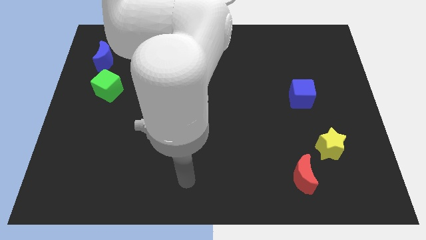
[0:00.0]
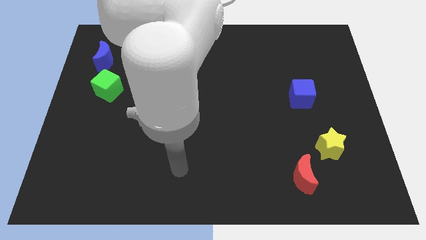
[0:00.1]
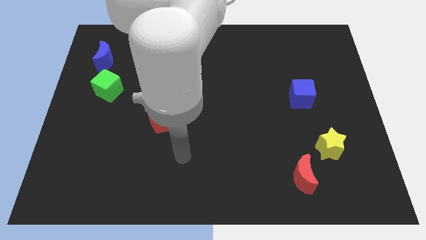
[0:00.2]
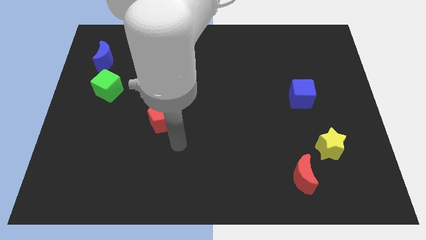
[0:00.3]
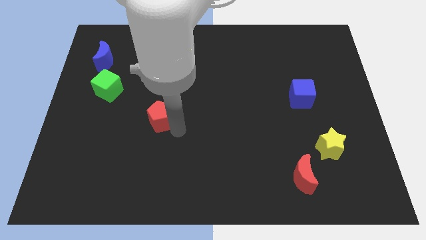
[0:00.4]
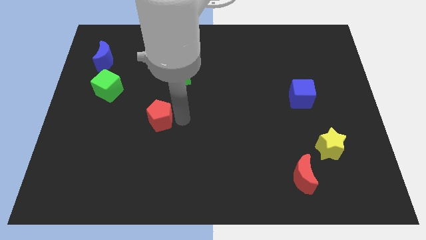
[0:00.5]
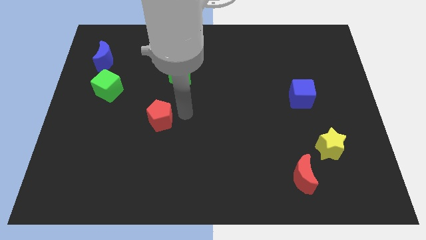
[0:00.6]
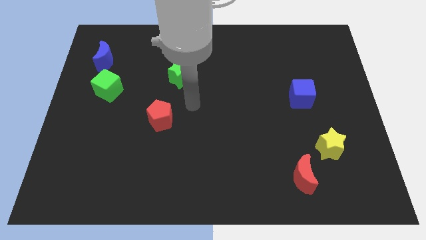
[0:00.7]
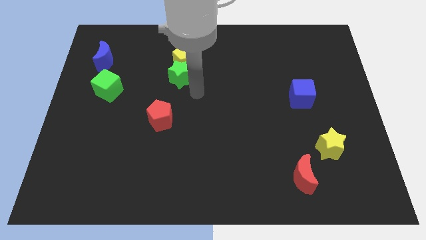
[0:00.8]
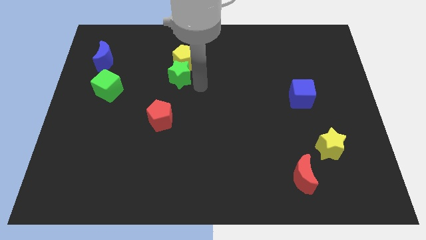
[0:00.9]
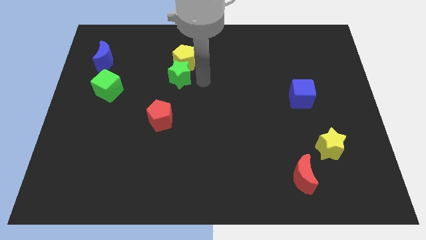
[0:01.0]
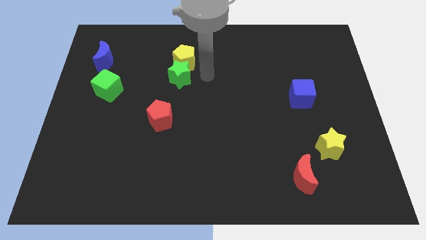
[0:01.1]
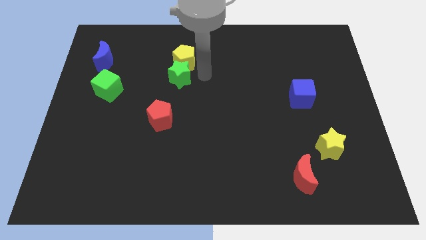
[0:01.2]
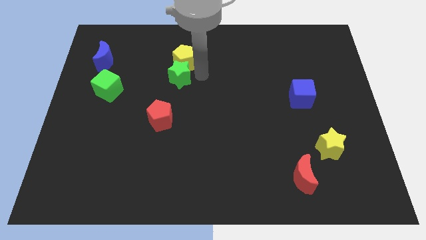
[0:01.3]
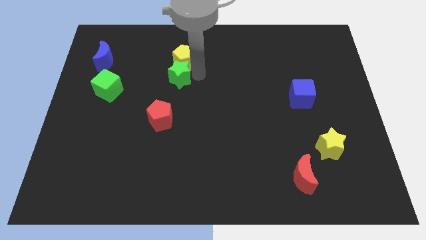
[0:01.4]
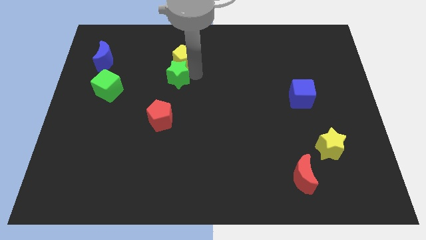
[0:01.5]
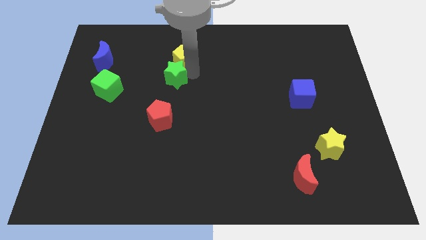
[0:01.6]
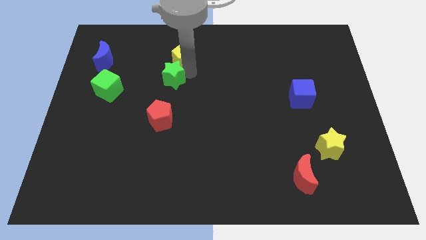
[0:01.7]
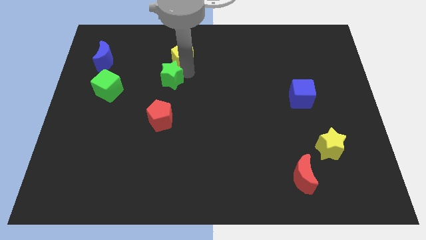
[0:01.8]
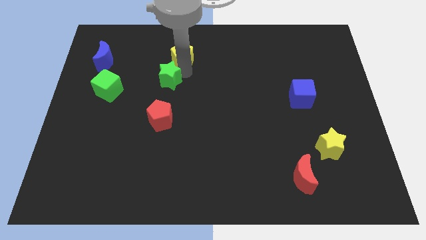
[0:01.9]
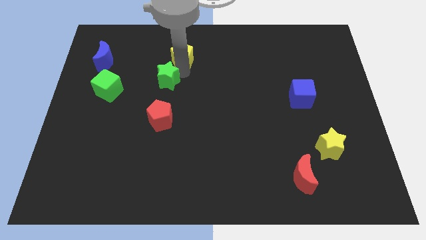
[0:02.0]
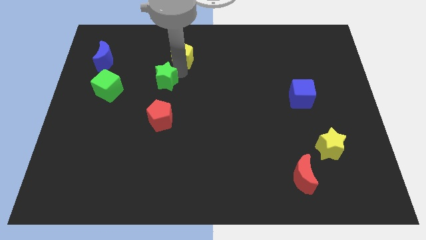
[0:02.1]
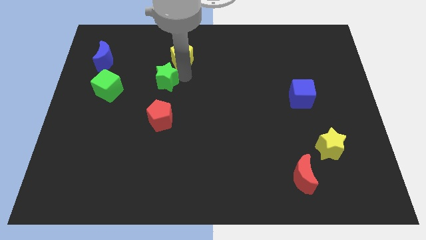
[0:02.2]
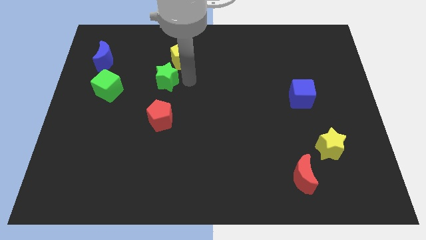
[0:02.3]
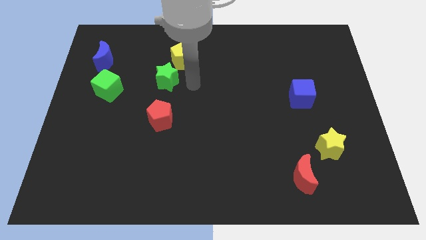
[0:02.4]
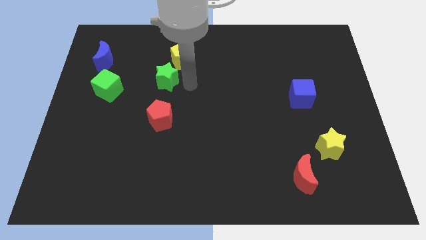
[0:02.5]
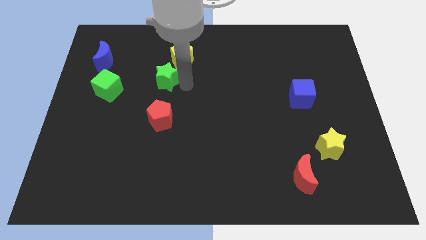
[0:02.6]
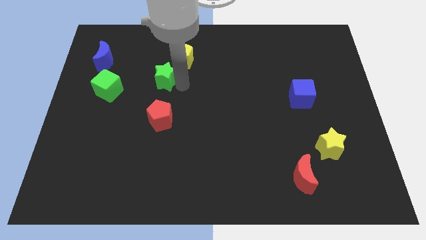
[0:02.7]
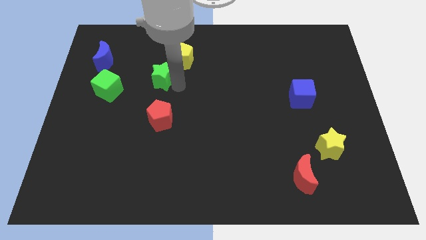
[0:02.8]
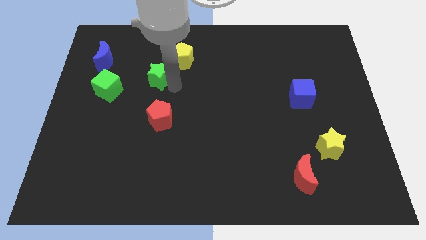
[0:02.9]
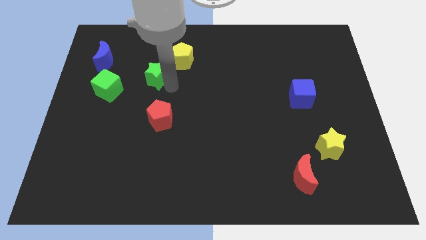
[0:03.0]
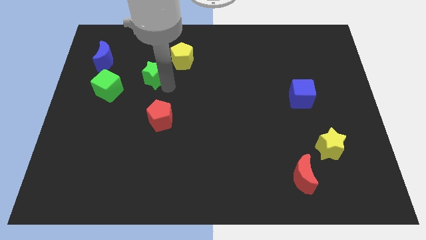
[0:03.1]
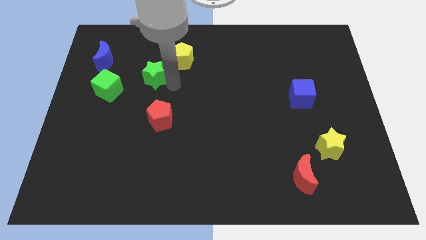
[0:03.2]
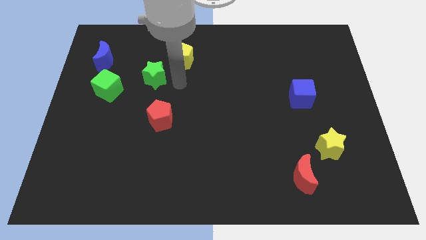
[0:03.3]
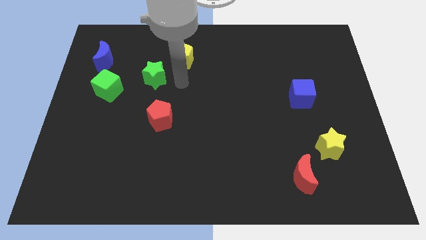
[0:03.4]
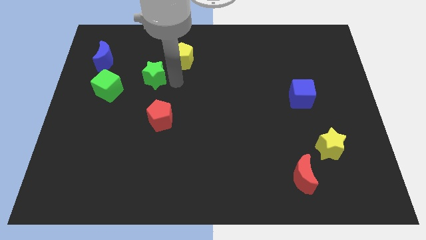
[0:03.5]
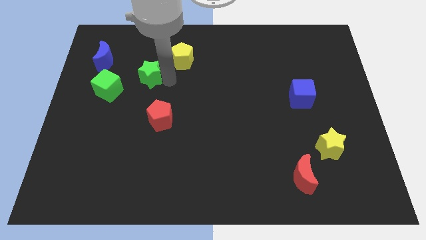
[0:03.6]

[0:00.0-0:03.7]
slightly push the green star left

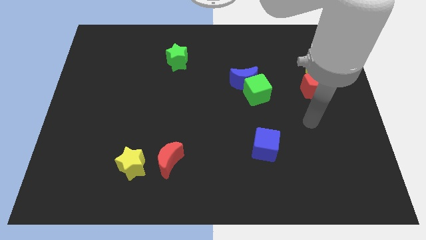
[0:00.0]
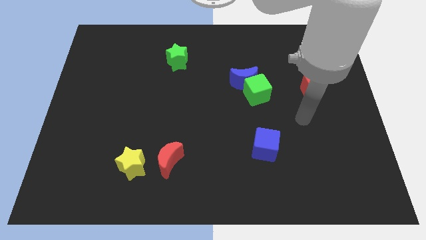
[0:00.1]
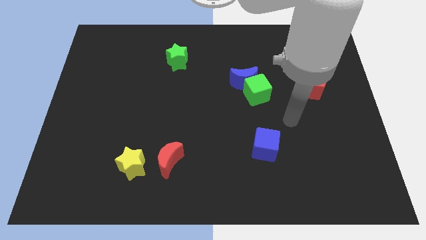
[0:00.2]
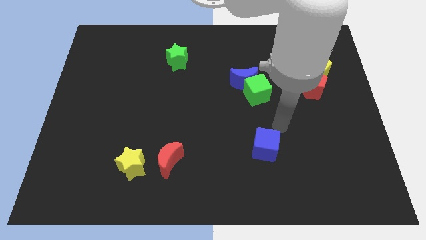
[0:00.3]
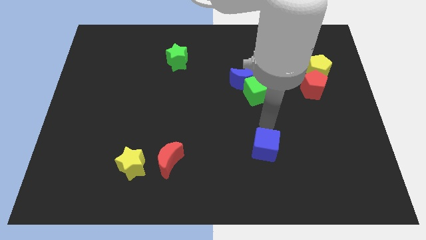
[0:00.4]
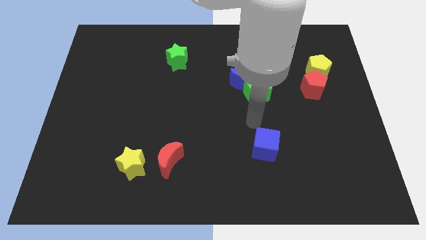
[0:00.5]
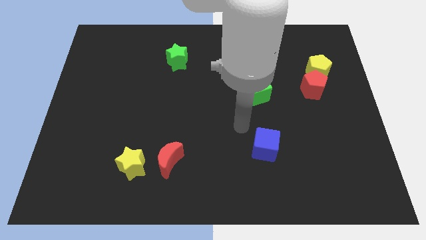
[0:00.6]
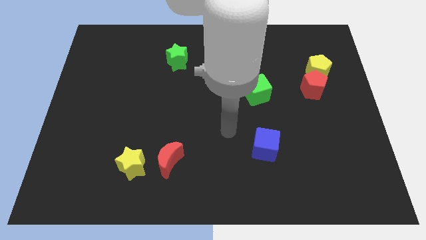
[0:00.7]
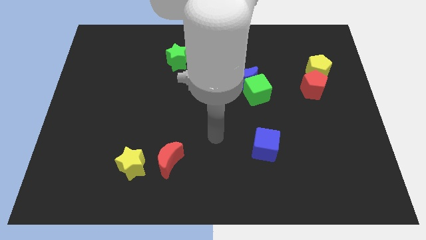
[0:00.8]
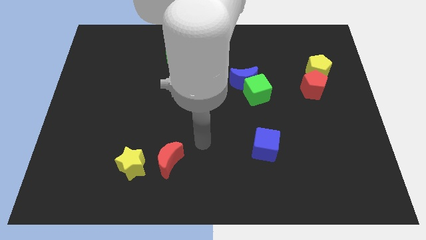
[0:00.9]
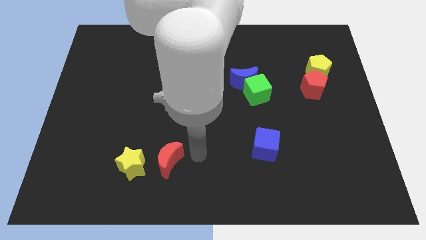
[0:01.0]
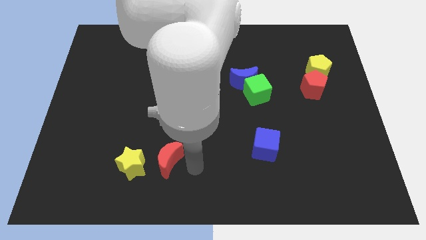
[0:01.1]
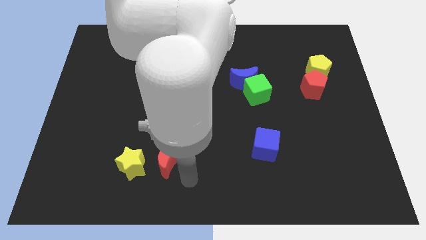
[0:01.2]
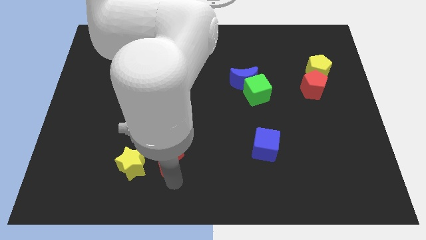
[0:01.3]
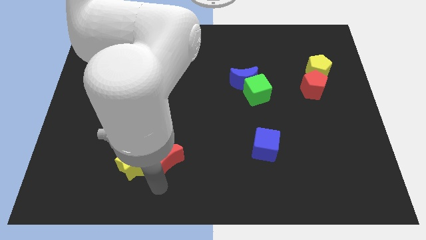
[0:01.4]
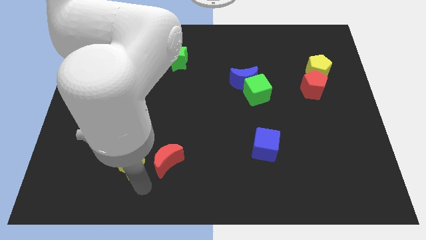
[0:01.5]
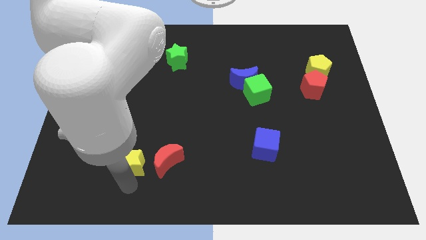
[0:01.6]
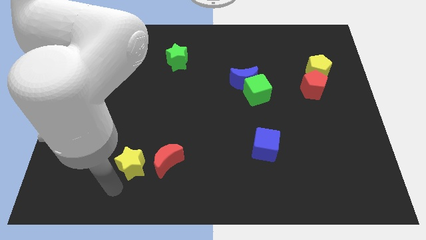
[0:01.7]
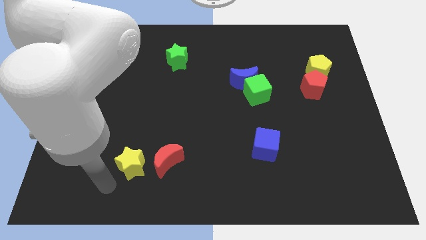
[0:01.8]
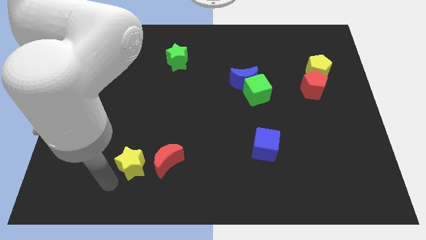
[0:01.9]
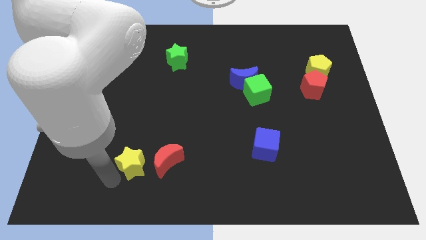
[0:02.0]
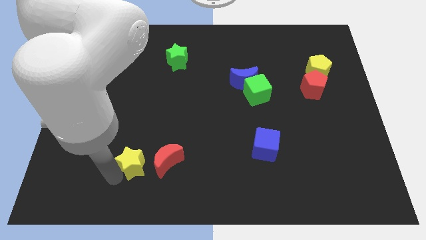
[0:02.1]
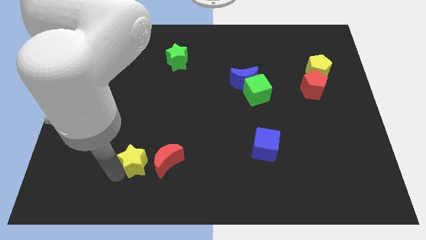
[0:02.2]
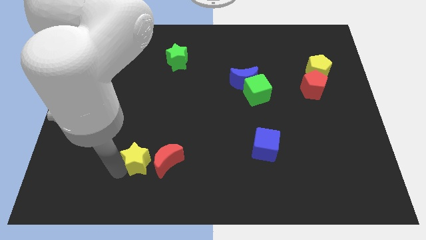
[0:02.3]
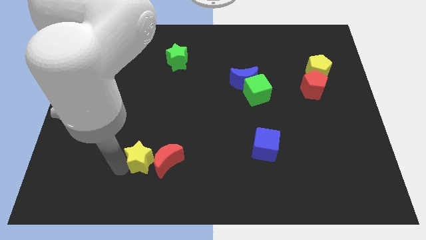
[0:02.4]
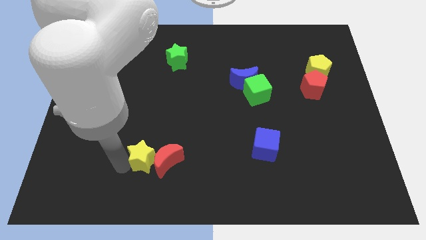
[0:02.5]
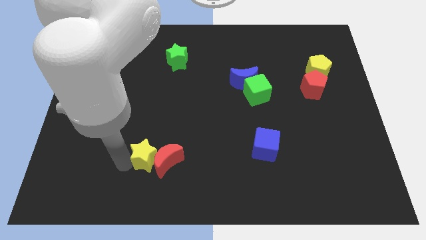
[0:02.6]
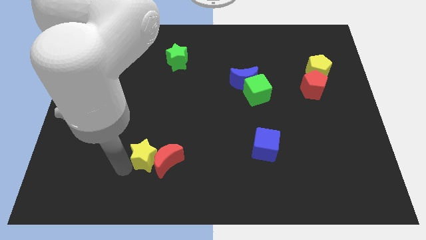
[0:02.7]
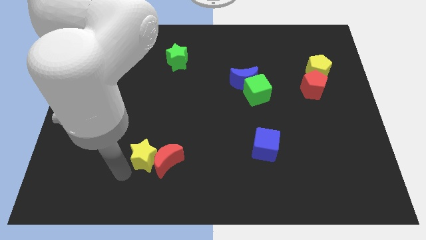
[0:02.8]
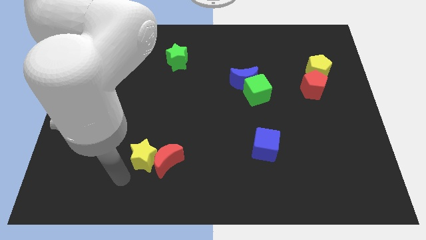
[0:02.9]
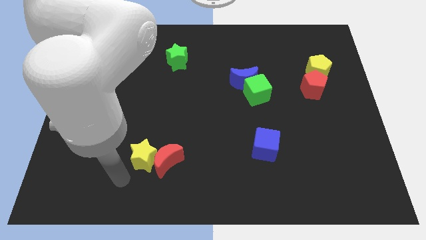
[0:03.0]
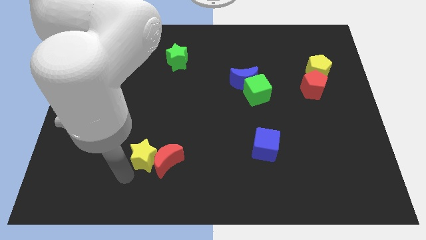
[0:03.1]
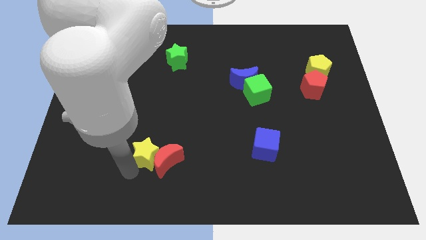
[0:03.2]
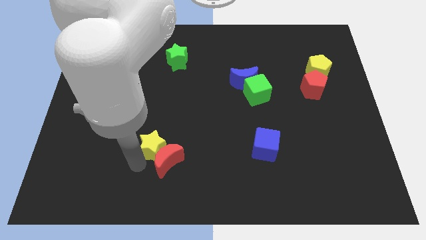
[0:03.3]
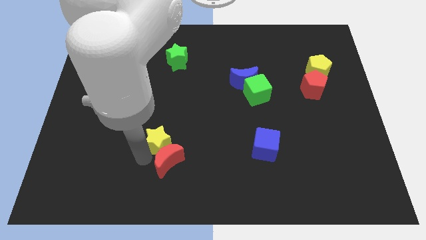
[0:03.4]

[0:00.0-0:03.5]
slightly move the yellow star up and then right

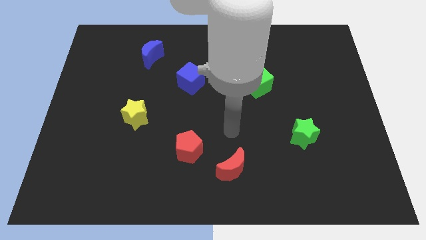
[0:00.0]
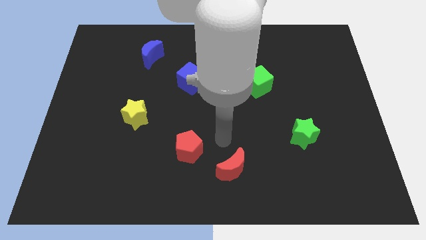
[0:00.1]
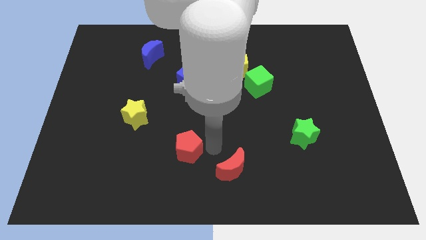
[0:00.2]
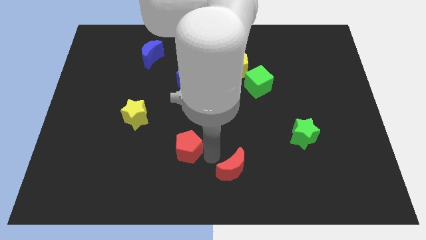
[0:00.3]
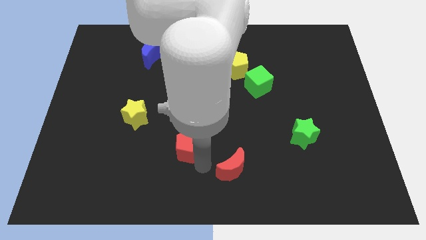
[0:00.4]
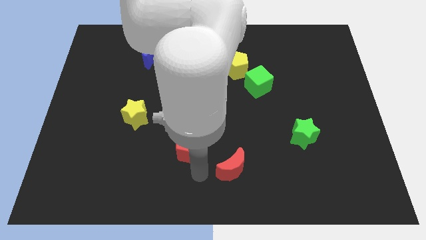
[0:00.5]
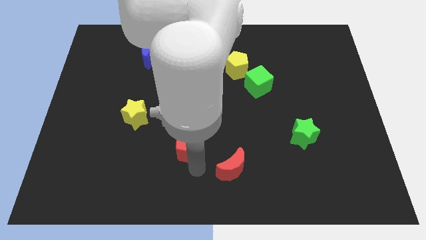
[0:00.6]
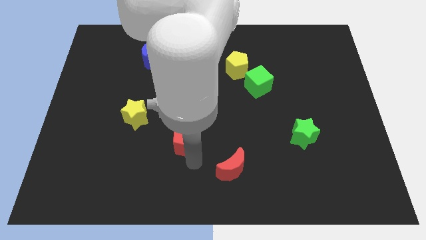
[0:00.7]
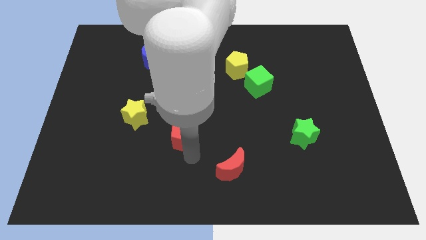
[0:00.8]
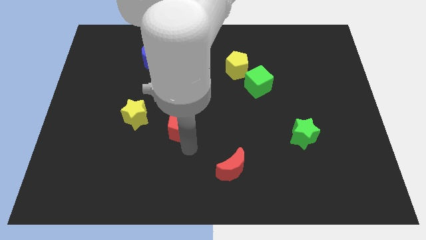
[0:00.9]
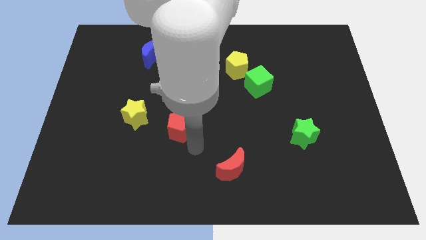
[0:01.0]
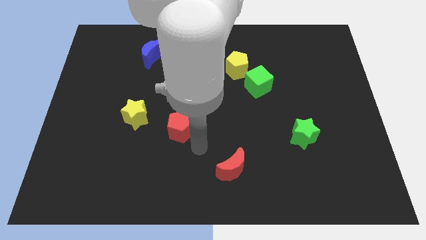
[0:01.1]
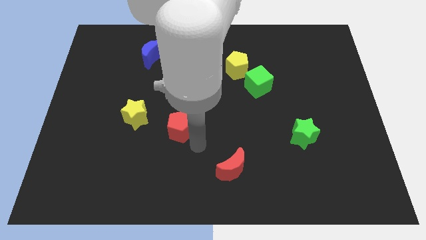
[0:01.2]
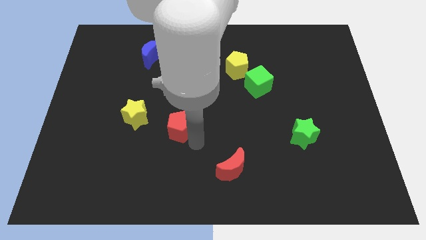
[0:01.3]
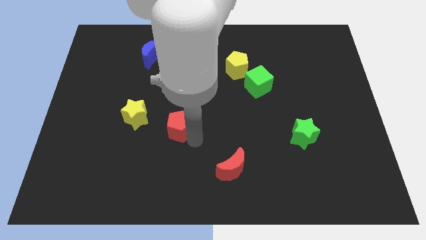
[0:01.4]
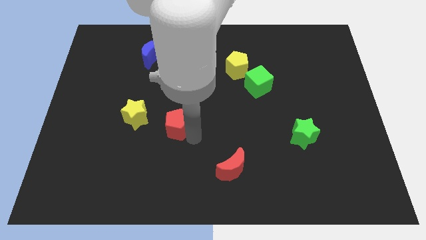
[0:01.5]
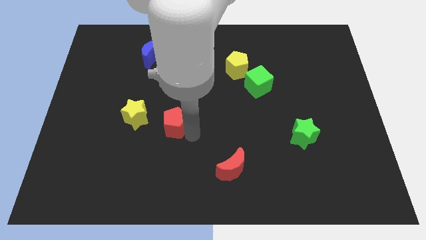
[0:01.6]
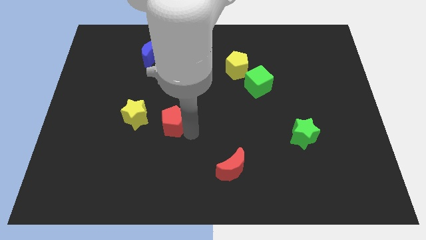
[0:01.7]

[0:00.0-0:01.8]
slide the red pentagon upwards and left a bit
